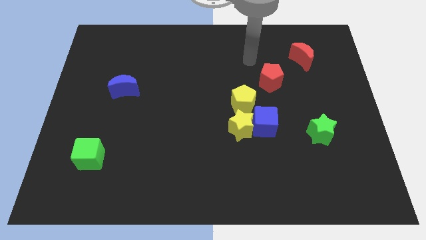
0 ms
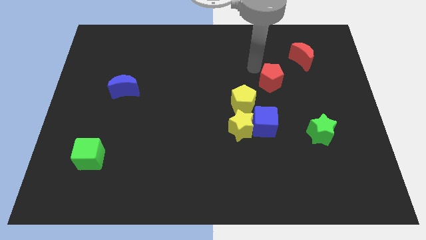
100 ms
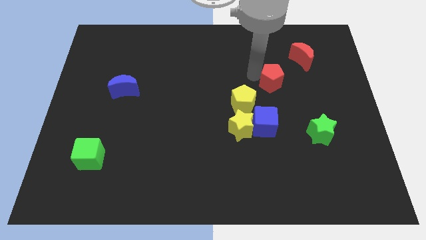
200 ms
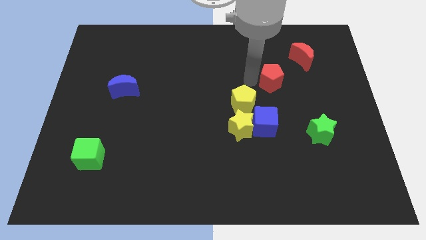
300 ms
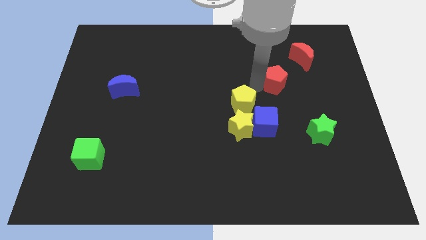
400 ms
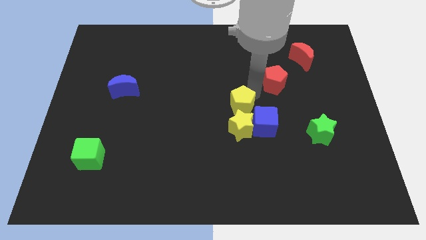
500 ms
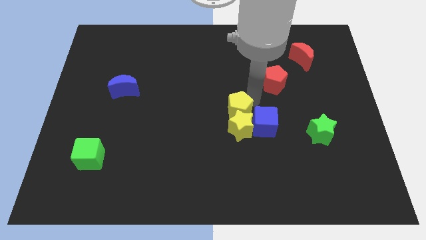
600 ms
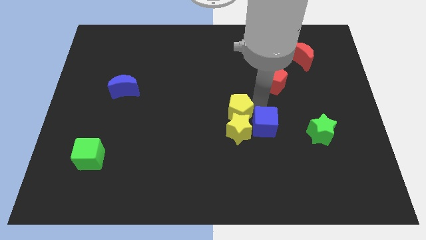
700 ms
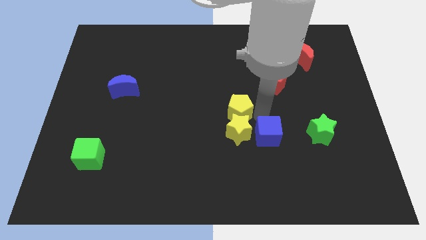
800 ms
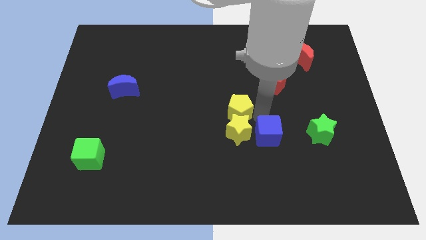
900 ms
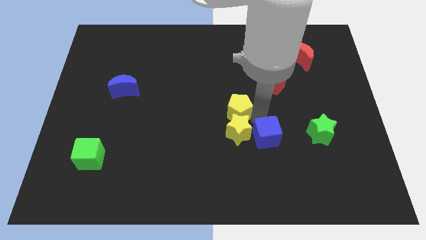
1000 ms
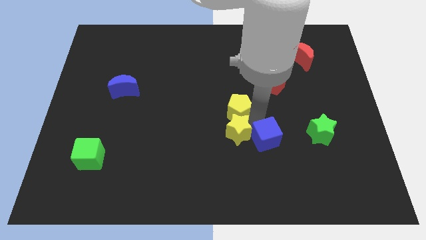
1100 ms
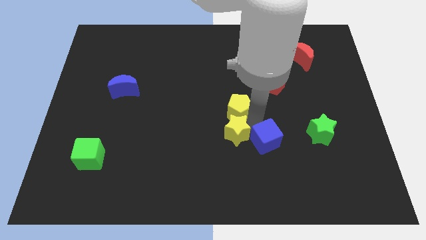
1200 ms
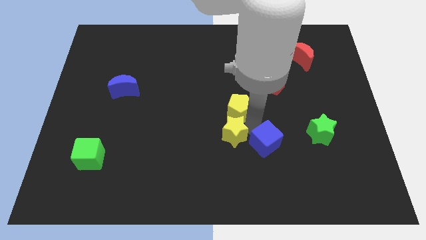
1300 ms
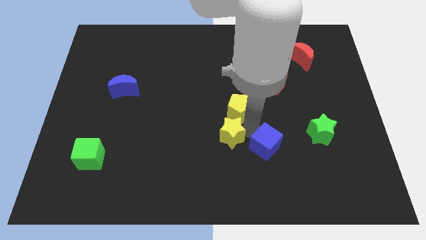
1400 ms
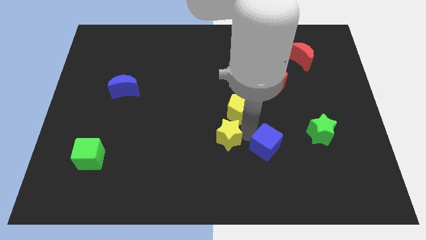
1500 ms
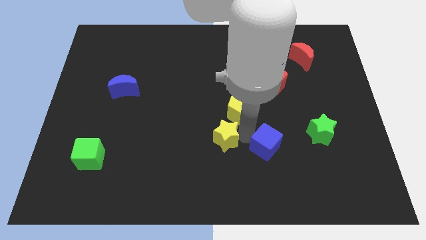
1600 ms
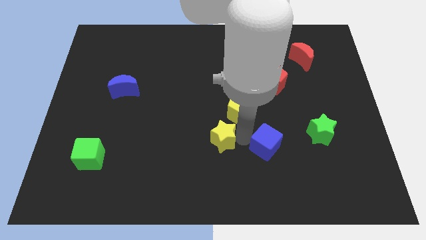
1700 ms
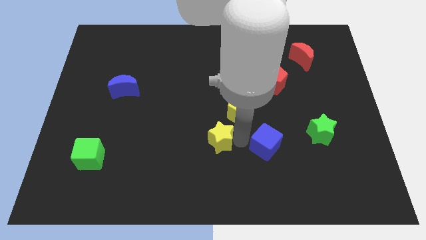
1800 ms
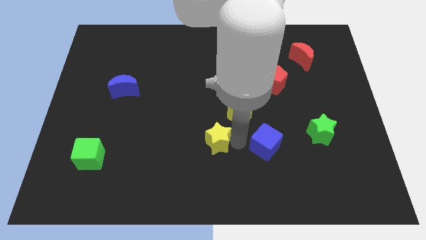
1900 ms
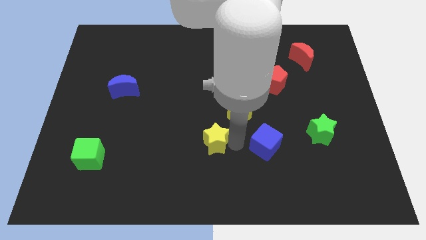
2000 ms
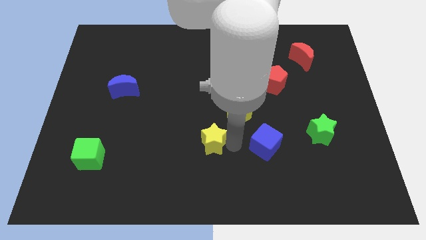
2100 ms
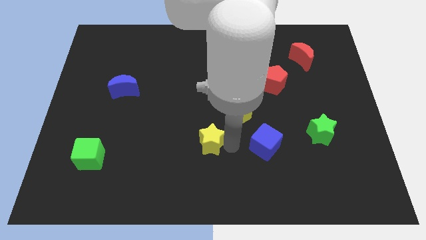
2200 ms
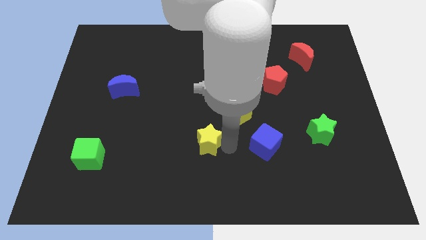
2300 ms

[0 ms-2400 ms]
pull the yellow star apart from the blue cube and yellow pentagon

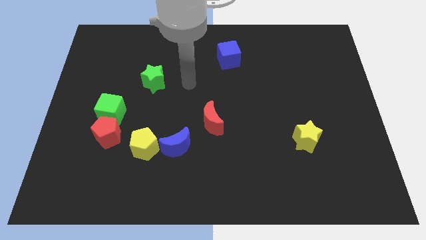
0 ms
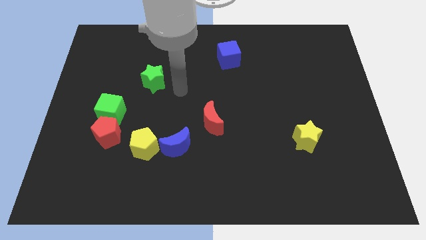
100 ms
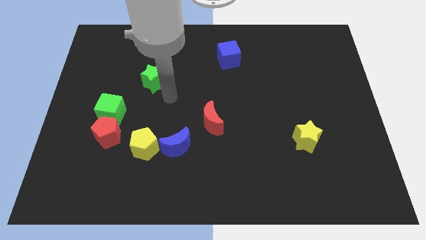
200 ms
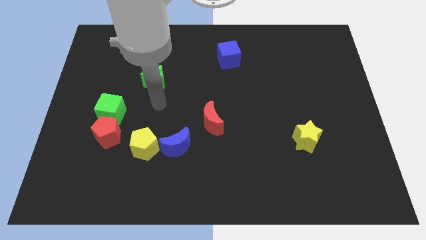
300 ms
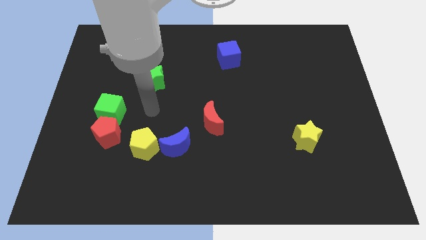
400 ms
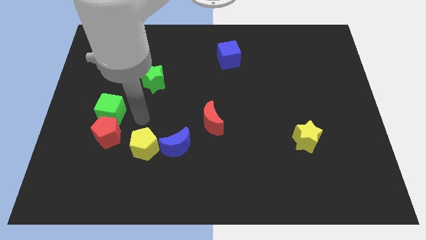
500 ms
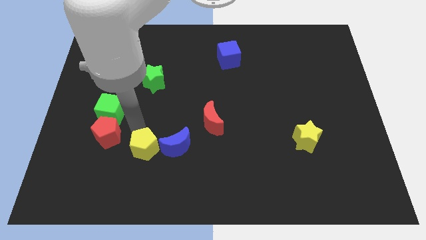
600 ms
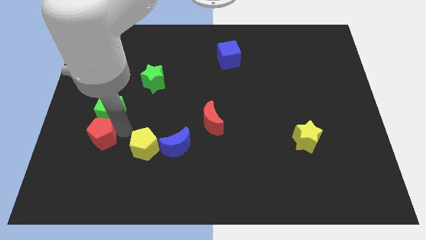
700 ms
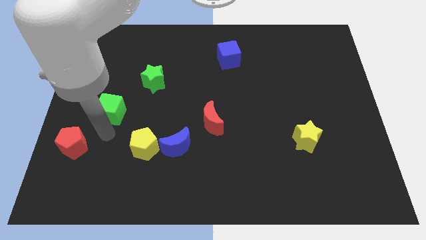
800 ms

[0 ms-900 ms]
separate the green cube from the red pentagon

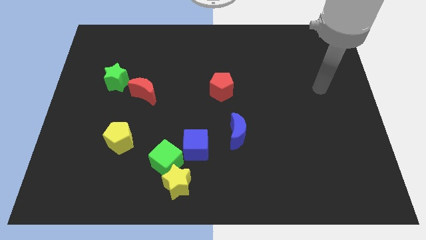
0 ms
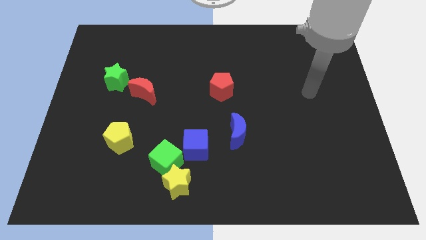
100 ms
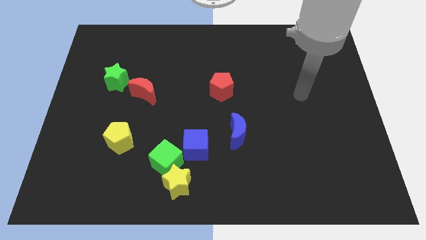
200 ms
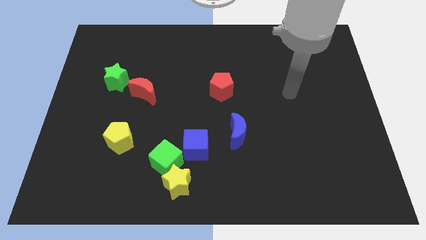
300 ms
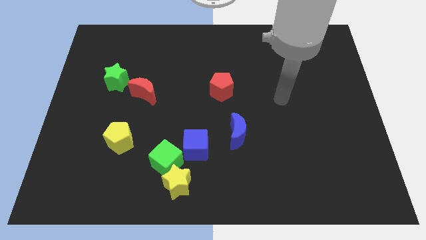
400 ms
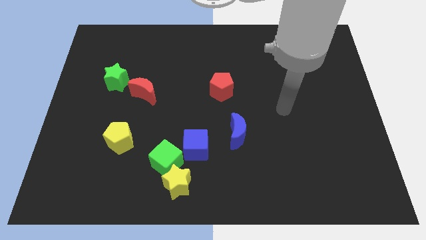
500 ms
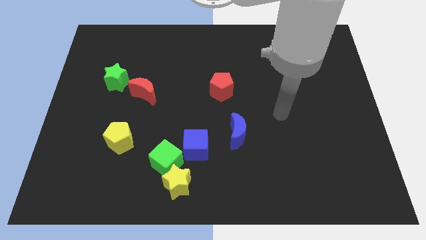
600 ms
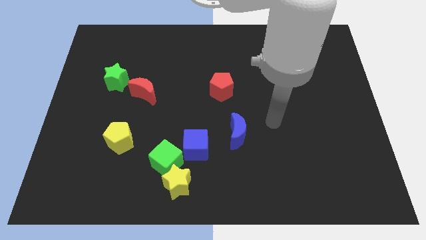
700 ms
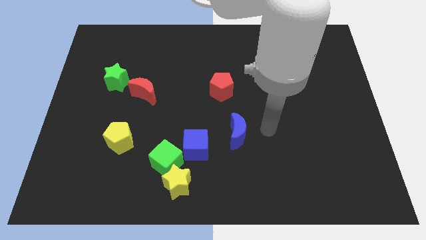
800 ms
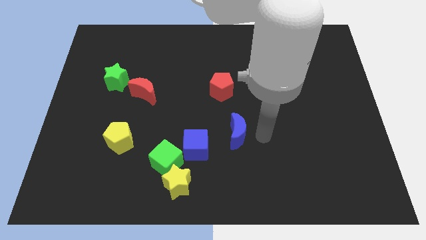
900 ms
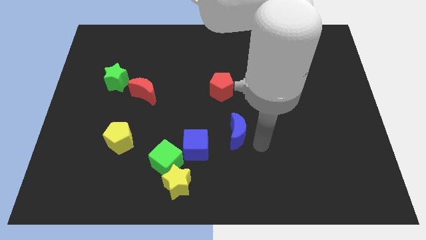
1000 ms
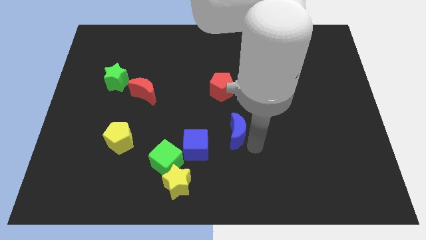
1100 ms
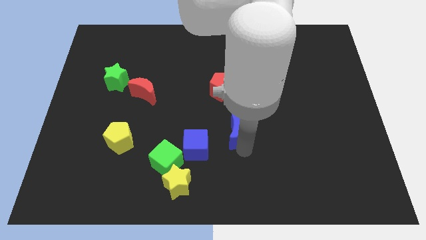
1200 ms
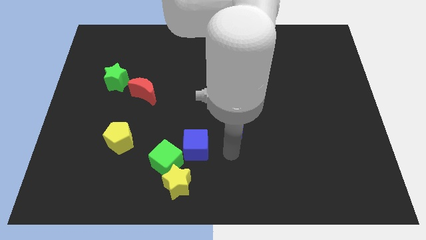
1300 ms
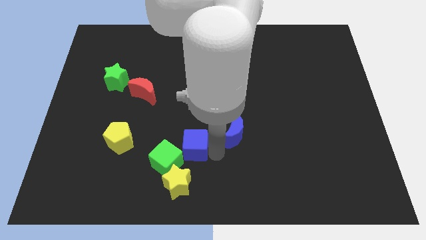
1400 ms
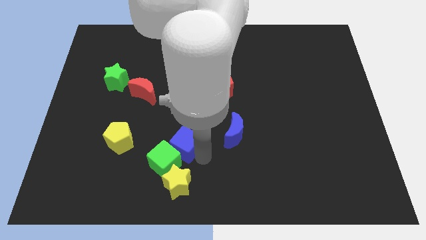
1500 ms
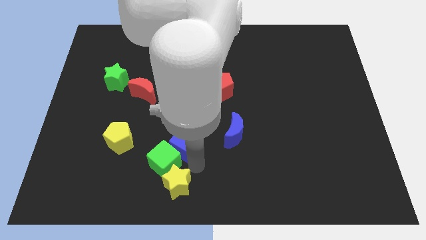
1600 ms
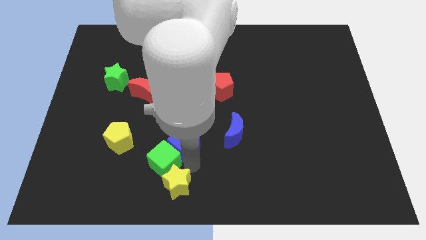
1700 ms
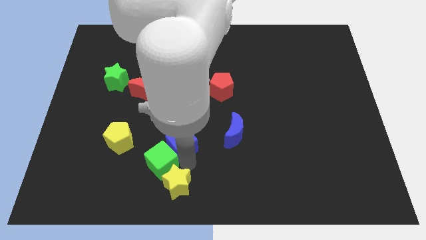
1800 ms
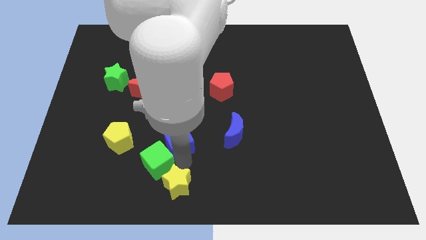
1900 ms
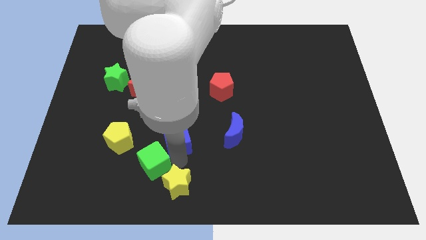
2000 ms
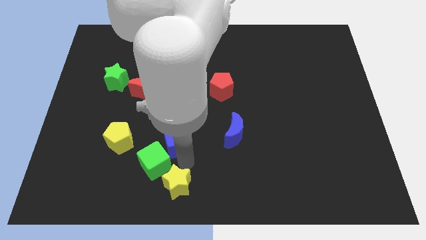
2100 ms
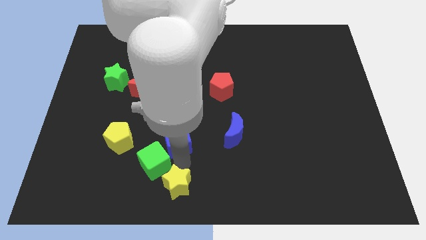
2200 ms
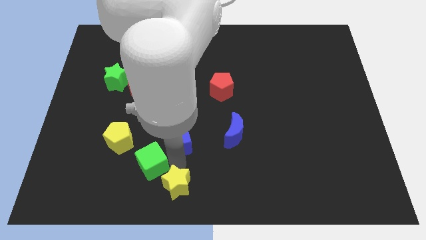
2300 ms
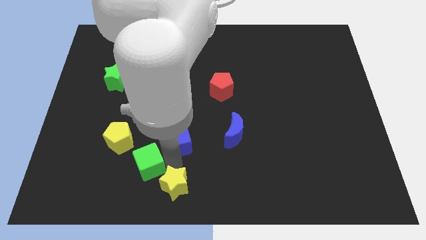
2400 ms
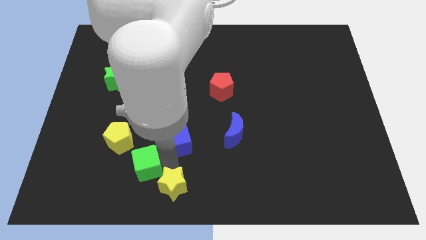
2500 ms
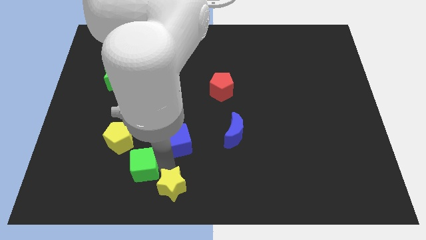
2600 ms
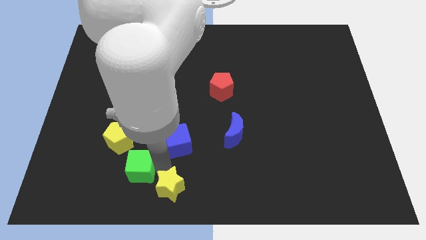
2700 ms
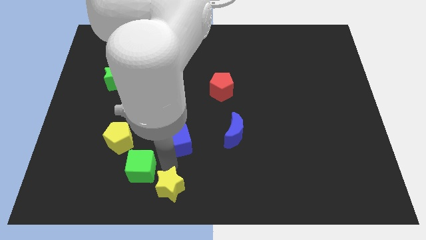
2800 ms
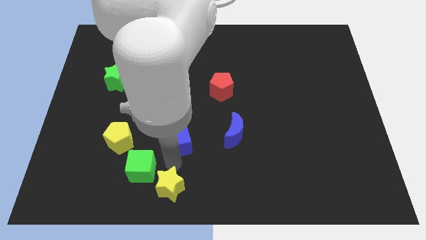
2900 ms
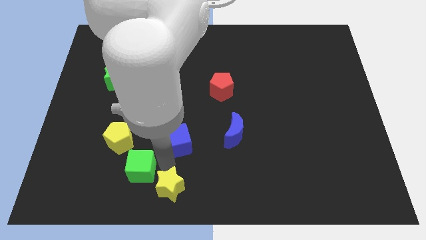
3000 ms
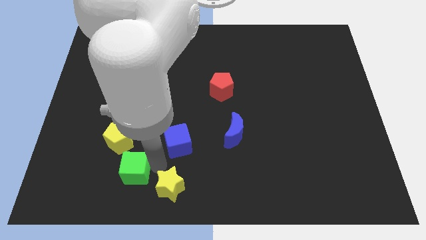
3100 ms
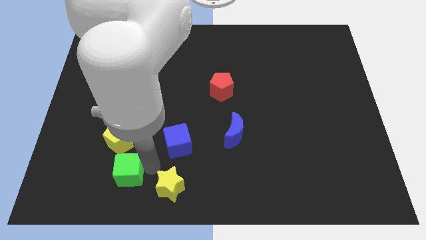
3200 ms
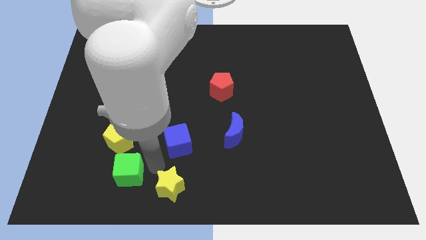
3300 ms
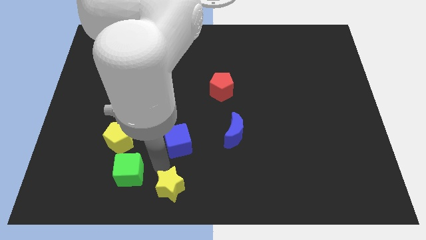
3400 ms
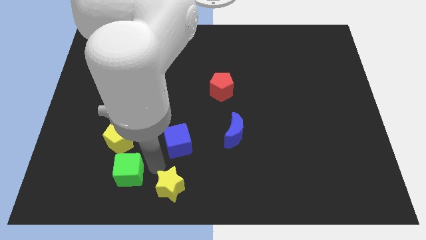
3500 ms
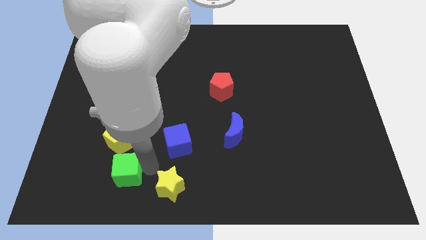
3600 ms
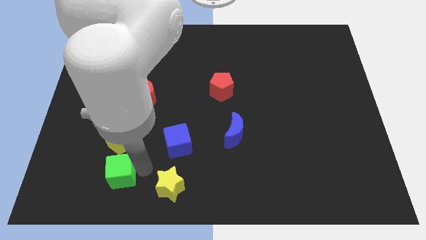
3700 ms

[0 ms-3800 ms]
pull the green cube apart from the yellow star and blue cube

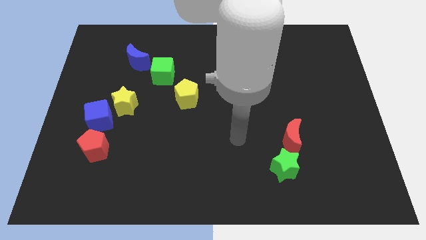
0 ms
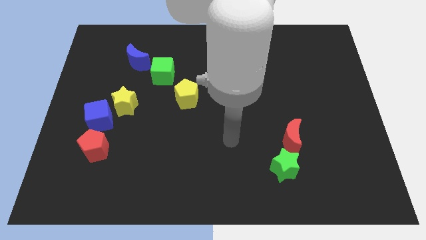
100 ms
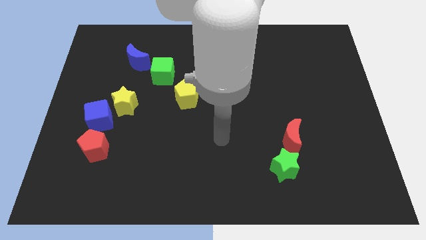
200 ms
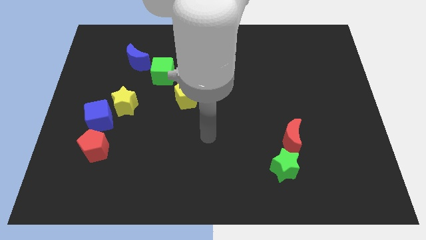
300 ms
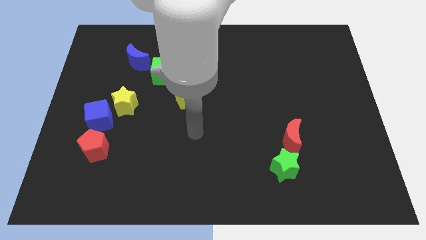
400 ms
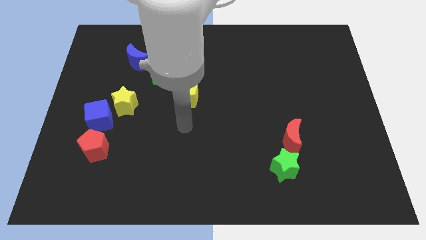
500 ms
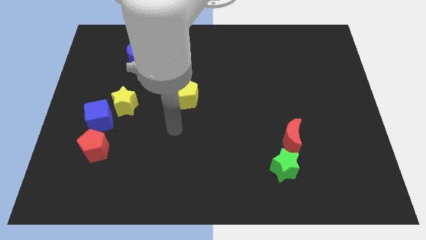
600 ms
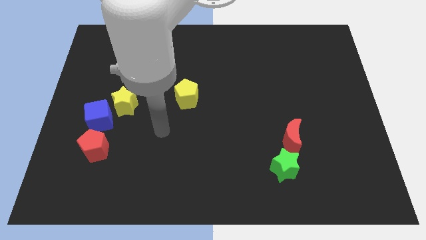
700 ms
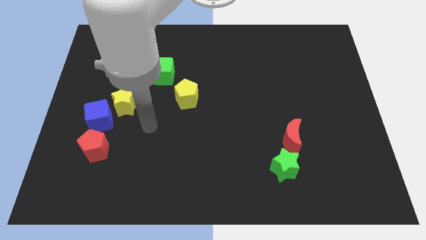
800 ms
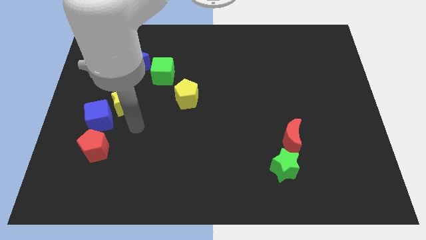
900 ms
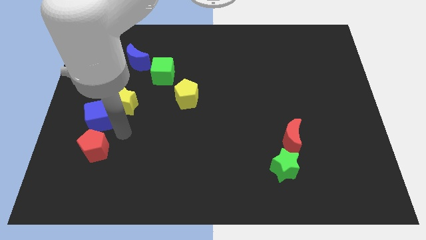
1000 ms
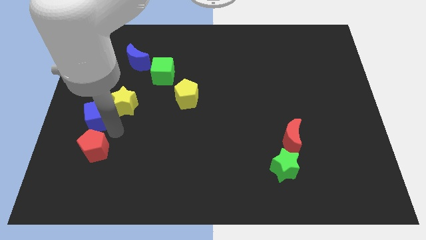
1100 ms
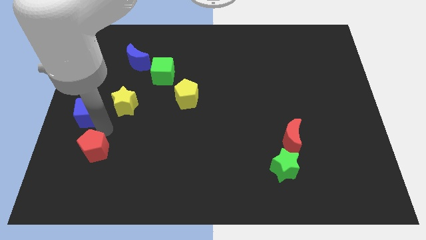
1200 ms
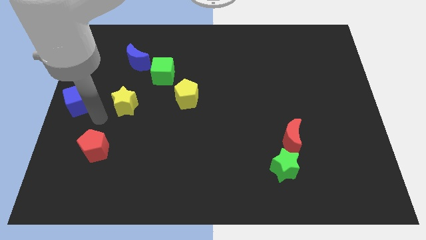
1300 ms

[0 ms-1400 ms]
move the yellow star away from the blue cube

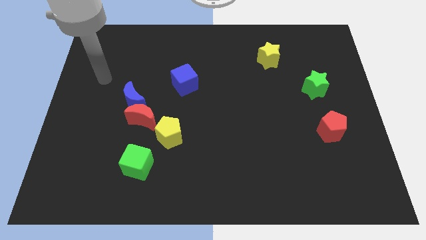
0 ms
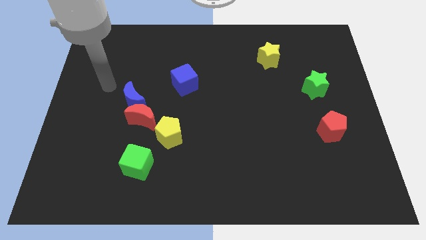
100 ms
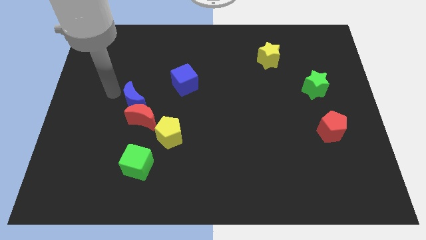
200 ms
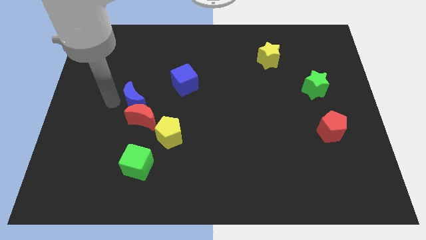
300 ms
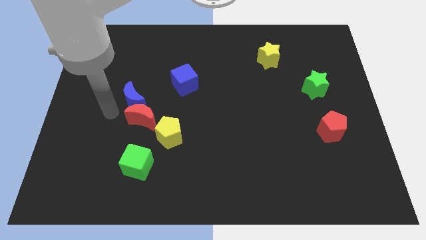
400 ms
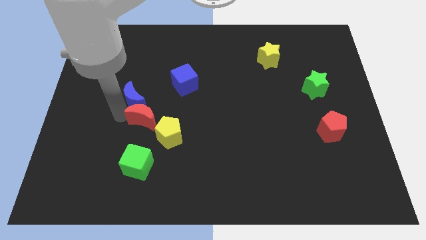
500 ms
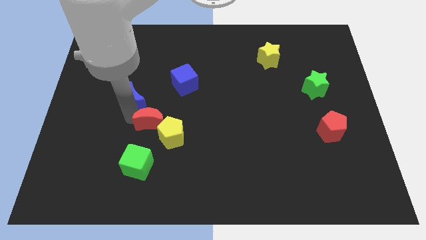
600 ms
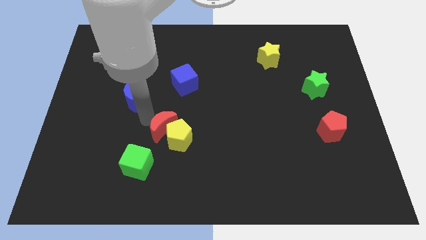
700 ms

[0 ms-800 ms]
separate the blue moon from the red moon
